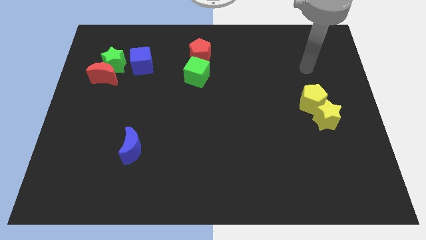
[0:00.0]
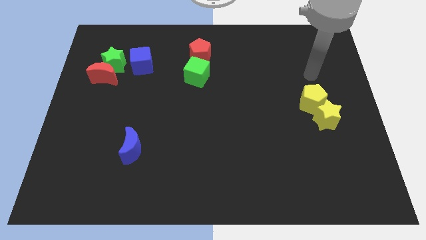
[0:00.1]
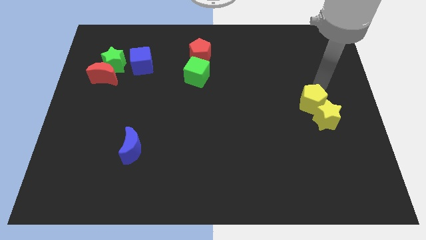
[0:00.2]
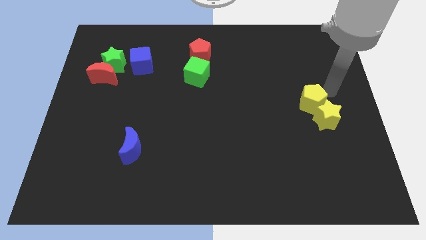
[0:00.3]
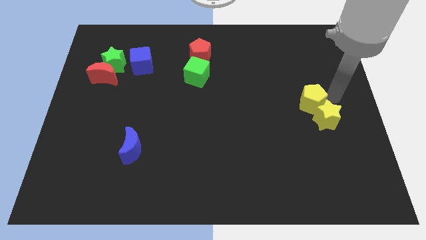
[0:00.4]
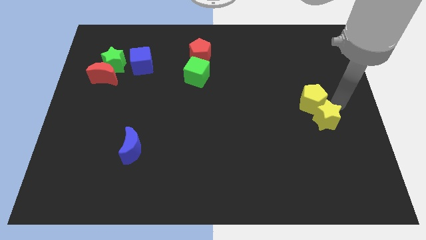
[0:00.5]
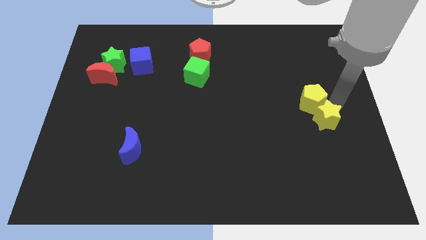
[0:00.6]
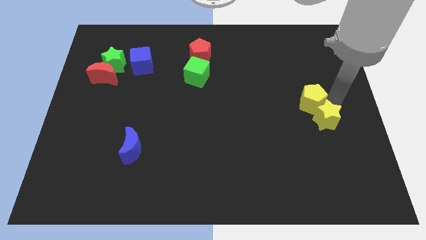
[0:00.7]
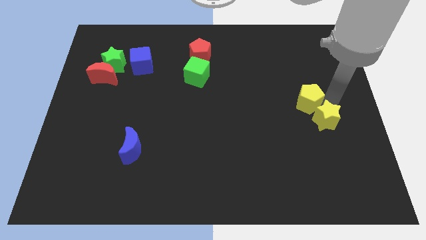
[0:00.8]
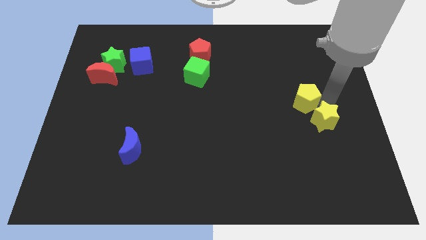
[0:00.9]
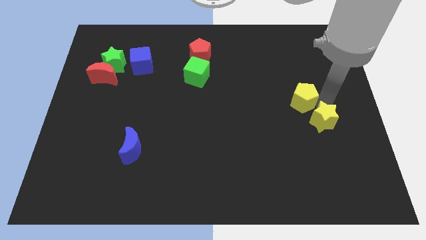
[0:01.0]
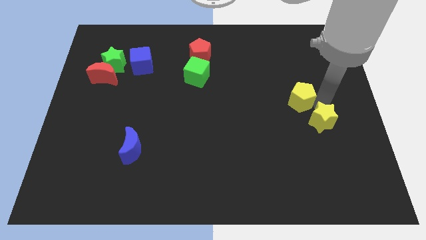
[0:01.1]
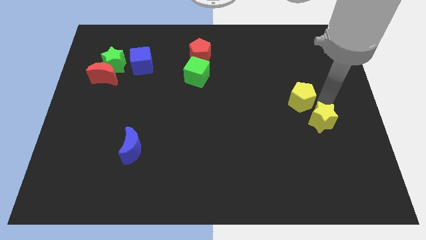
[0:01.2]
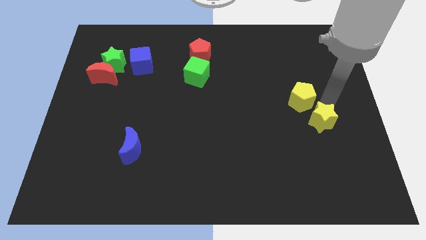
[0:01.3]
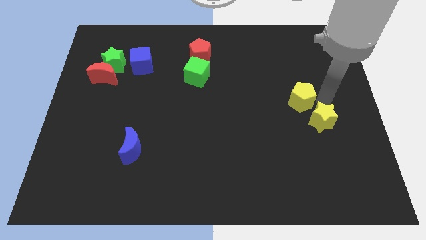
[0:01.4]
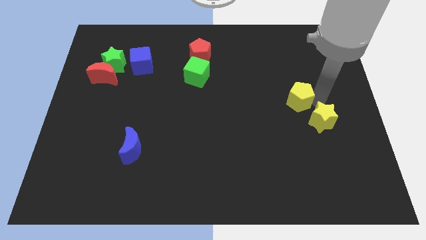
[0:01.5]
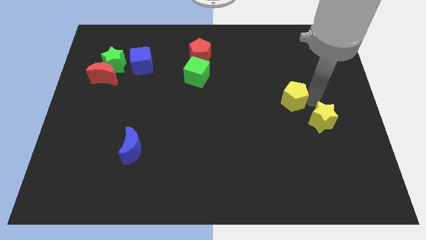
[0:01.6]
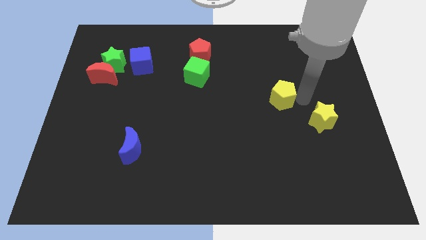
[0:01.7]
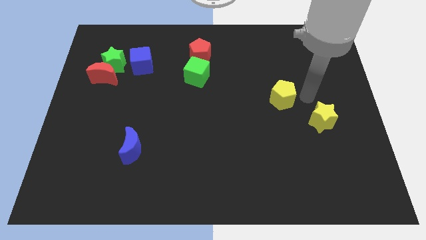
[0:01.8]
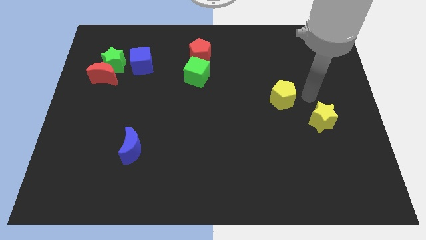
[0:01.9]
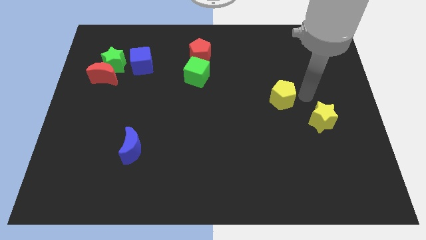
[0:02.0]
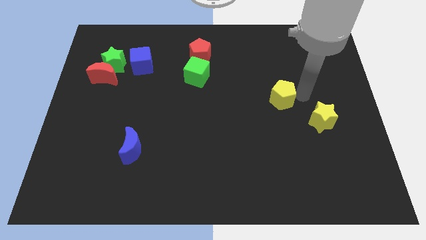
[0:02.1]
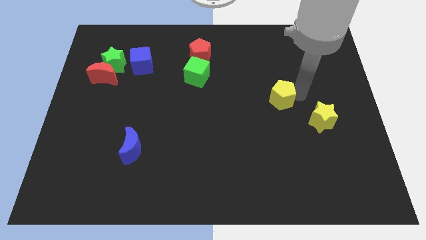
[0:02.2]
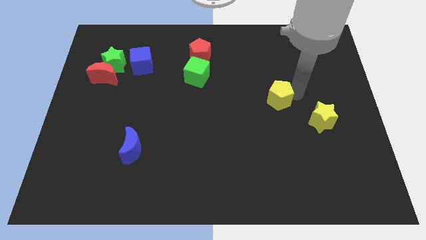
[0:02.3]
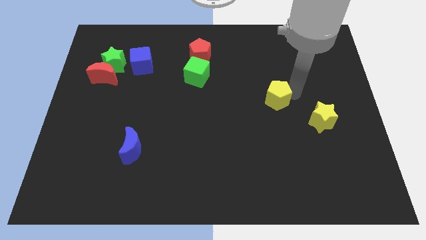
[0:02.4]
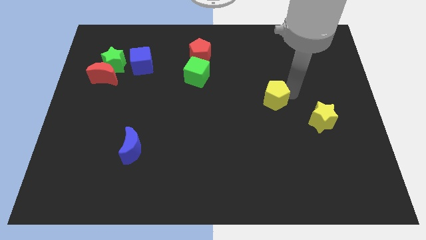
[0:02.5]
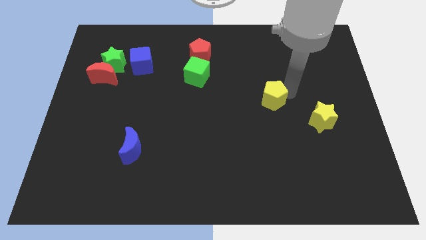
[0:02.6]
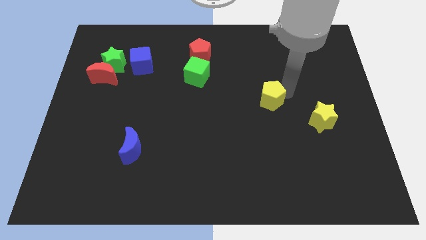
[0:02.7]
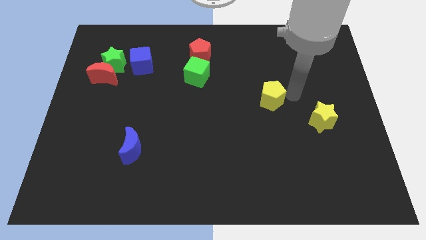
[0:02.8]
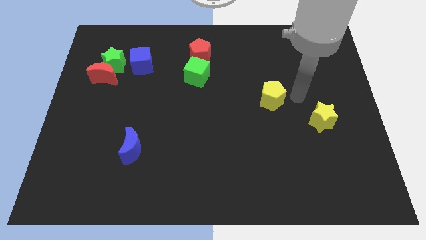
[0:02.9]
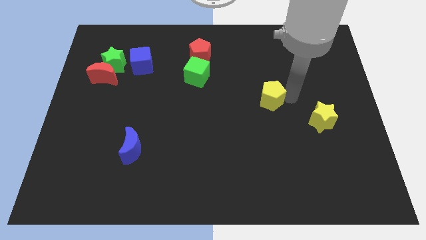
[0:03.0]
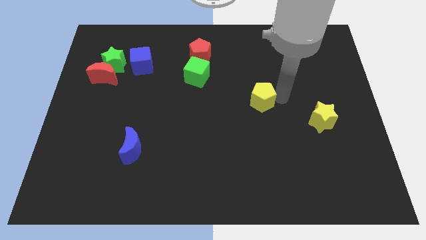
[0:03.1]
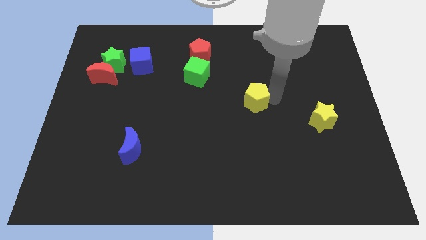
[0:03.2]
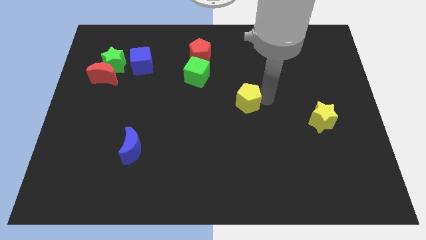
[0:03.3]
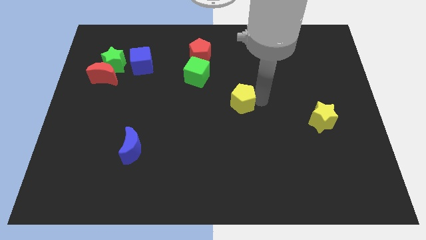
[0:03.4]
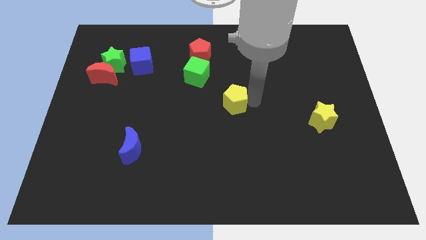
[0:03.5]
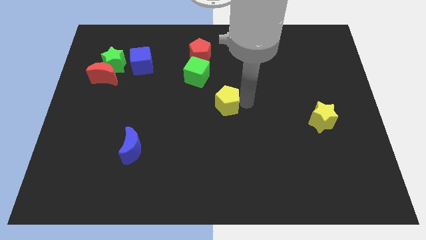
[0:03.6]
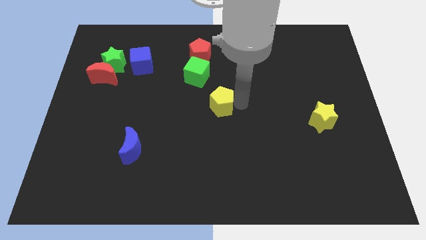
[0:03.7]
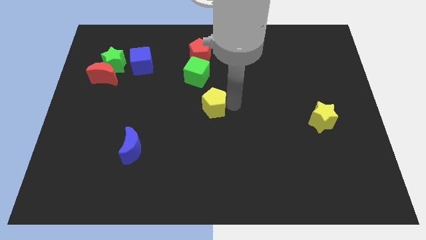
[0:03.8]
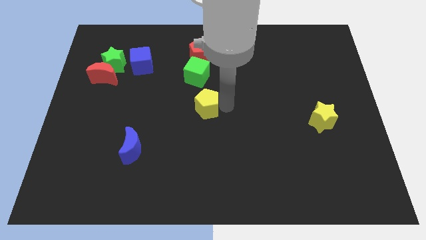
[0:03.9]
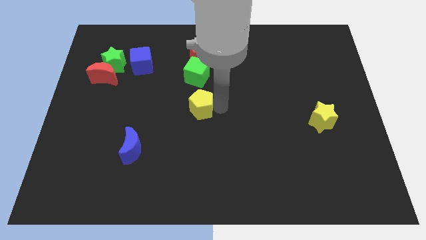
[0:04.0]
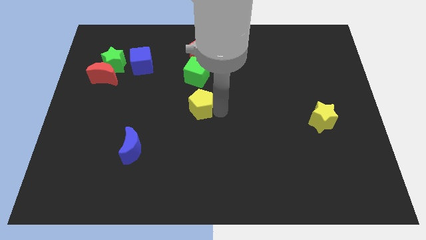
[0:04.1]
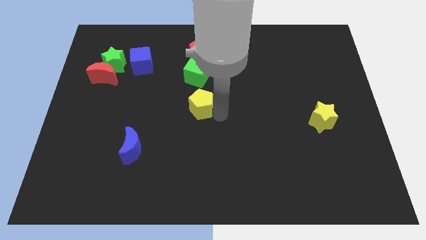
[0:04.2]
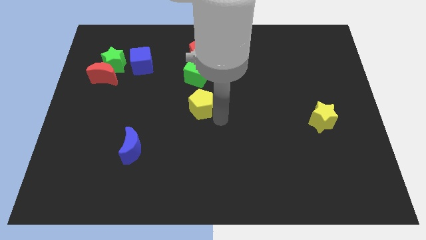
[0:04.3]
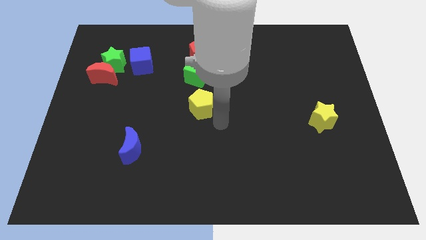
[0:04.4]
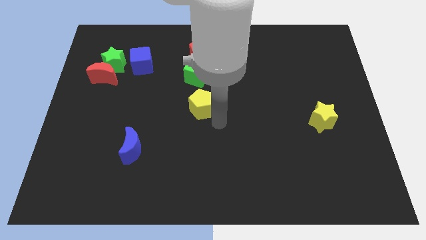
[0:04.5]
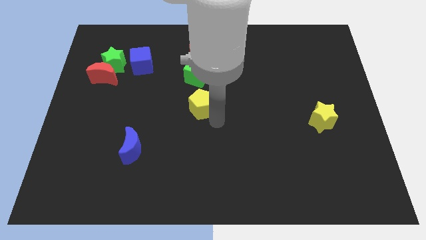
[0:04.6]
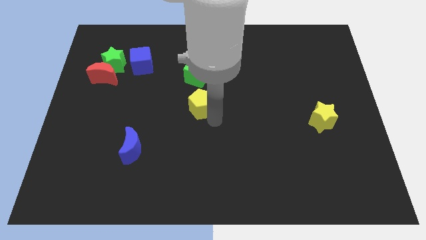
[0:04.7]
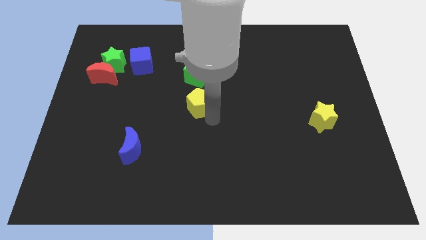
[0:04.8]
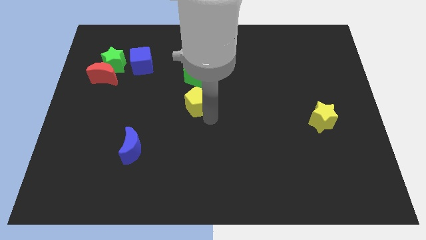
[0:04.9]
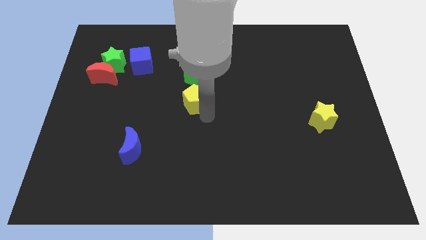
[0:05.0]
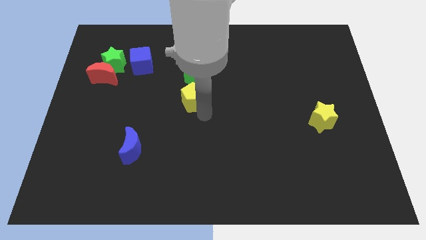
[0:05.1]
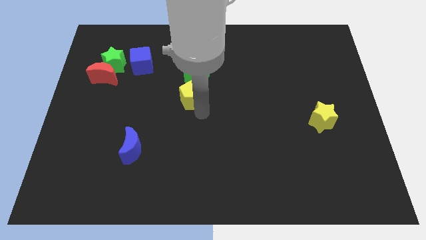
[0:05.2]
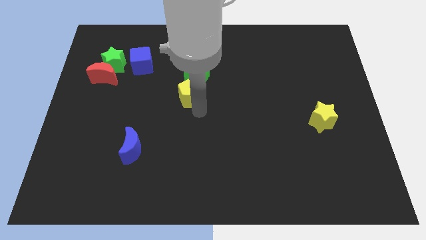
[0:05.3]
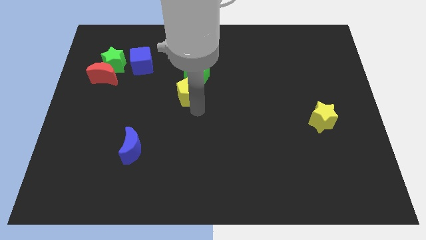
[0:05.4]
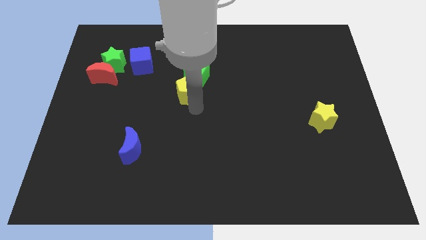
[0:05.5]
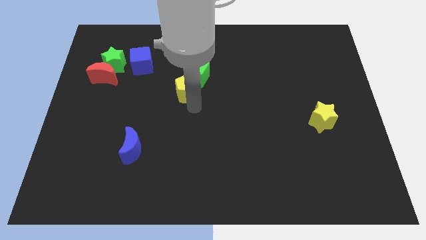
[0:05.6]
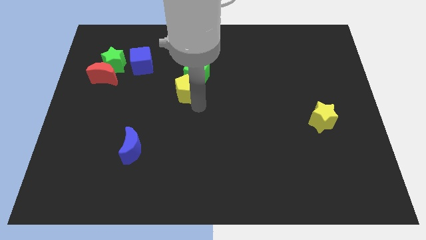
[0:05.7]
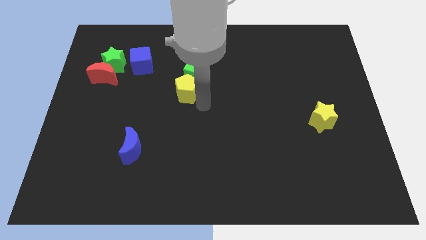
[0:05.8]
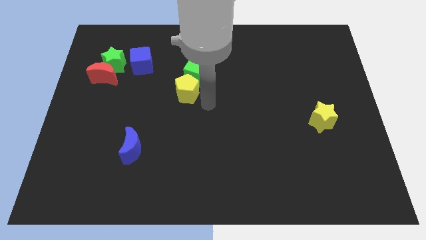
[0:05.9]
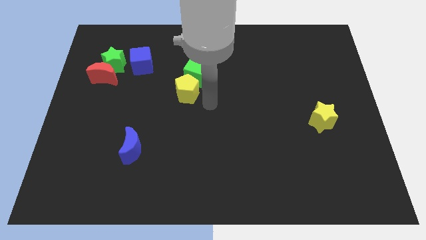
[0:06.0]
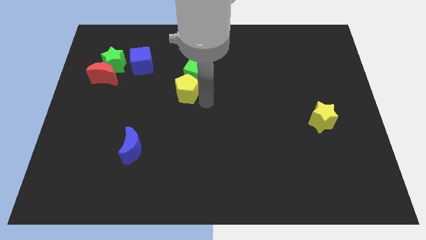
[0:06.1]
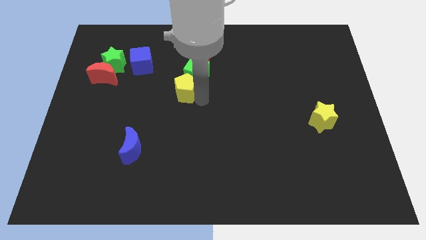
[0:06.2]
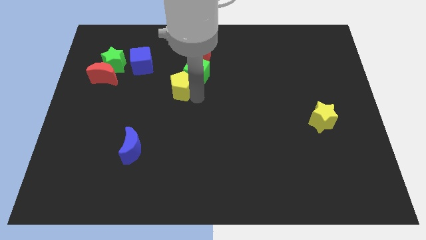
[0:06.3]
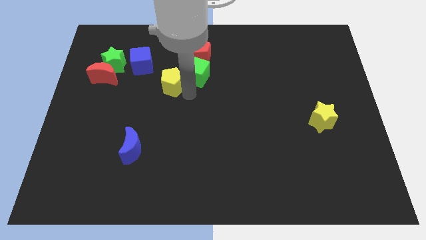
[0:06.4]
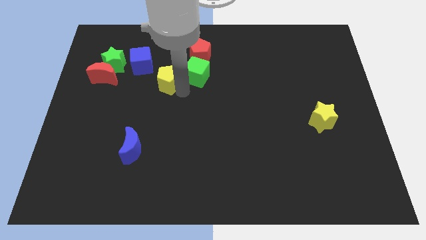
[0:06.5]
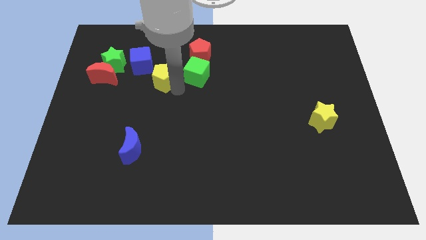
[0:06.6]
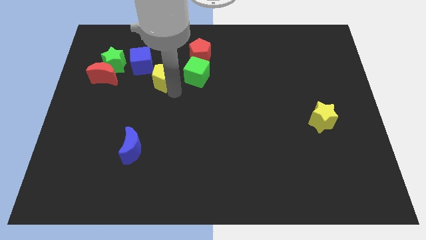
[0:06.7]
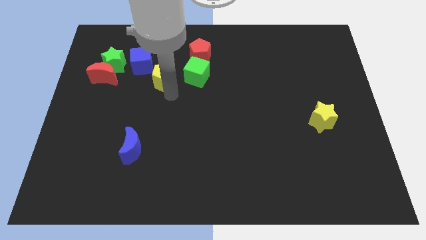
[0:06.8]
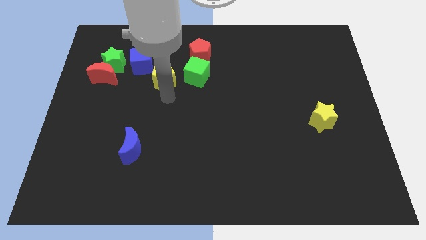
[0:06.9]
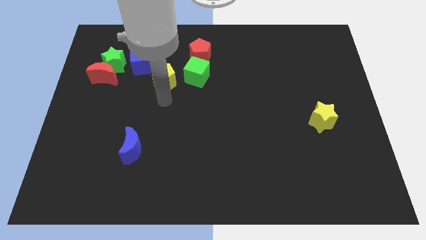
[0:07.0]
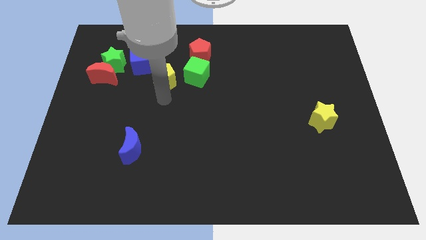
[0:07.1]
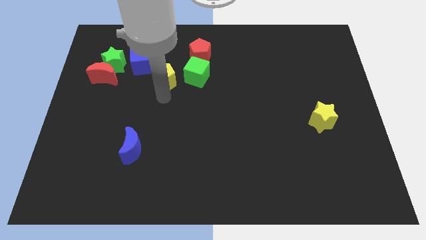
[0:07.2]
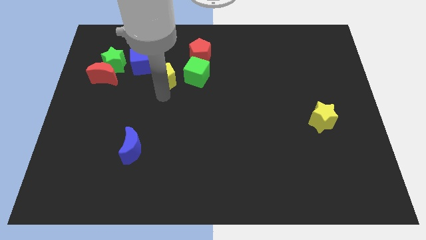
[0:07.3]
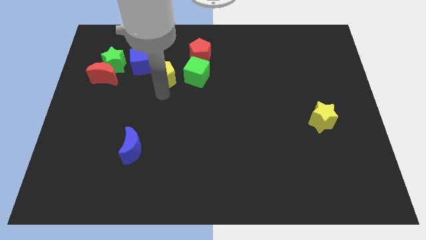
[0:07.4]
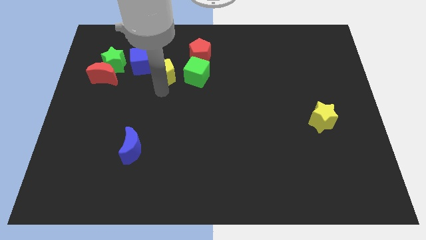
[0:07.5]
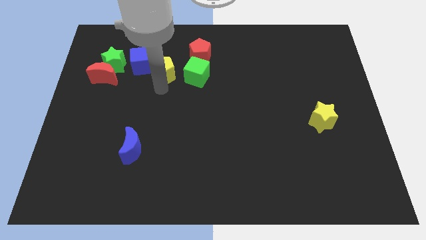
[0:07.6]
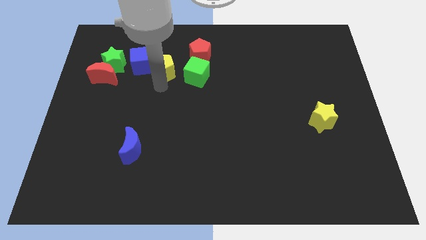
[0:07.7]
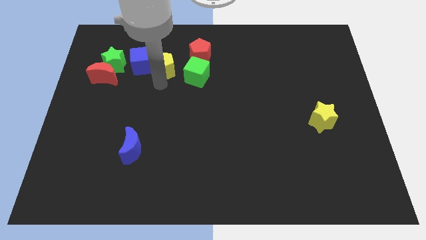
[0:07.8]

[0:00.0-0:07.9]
move the yellow pentagon to the left side of the red pentagon
